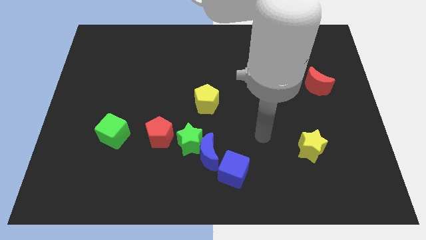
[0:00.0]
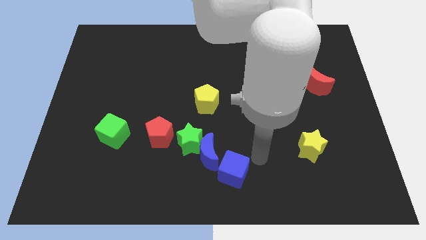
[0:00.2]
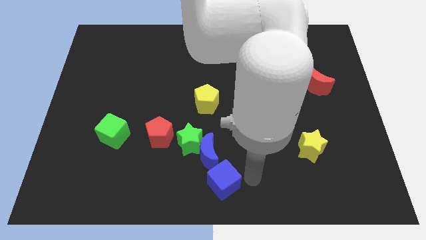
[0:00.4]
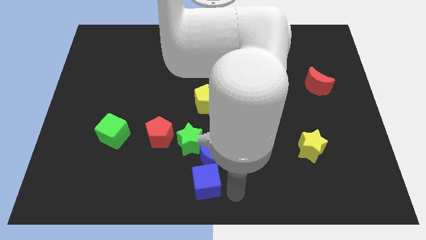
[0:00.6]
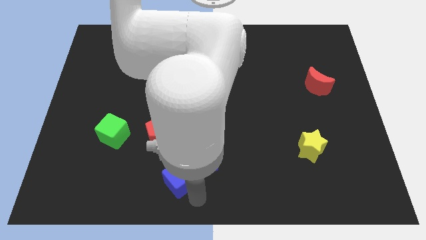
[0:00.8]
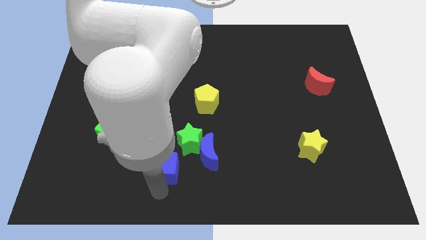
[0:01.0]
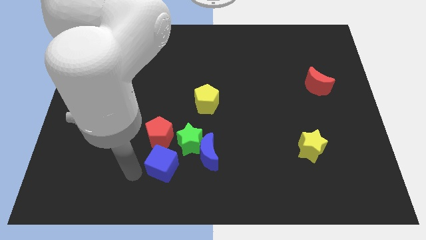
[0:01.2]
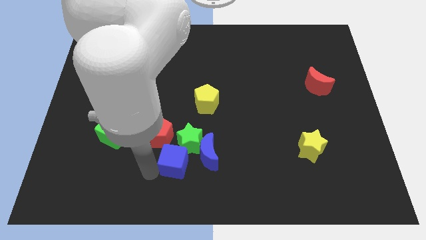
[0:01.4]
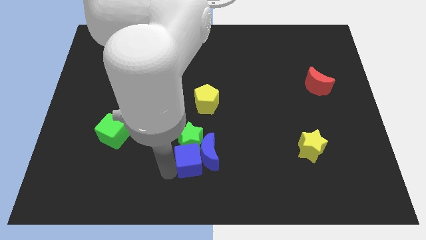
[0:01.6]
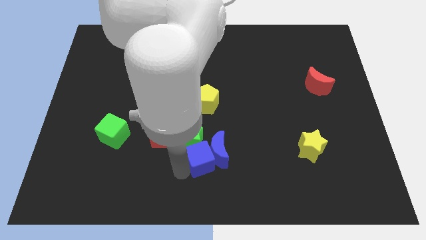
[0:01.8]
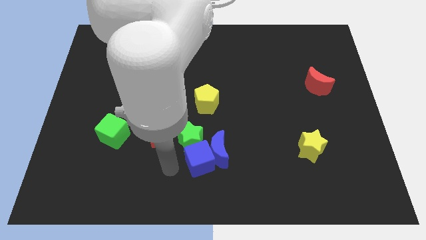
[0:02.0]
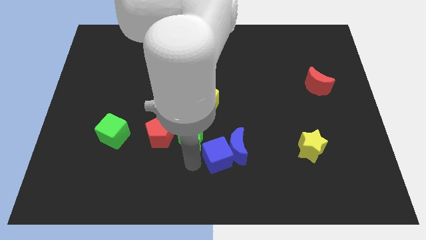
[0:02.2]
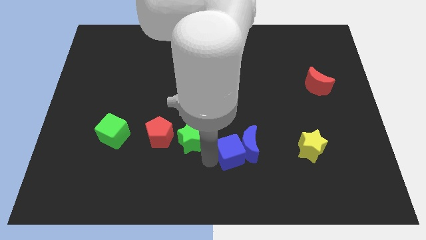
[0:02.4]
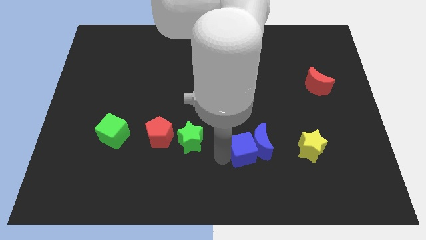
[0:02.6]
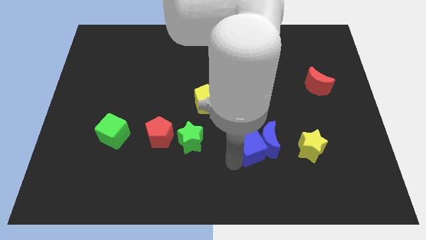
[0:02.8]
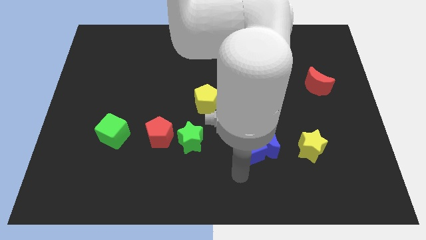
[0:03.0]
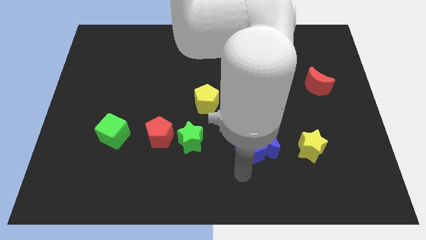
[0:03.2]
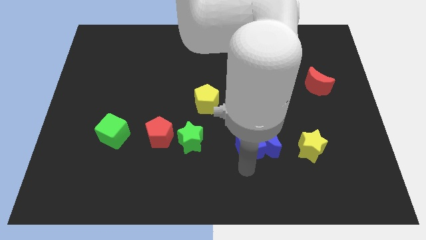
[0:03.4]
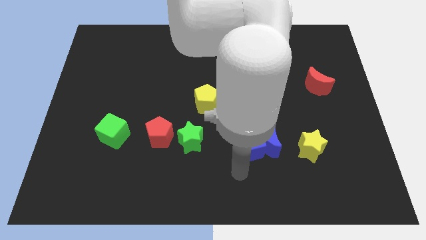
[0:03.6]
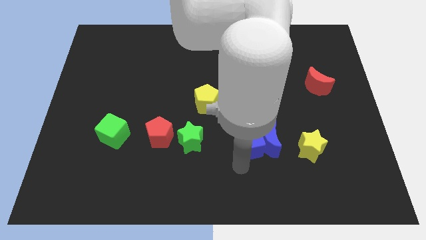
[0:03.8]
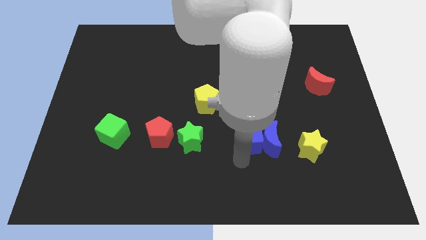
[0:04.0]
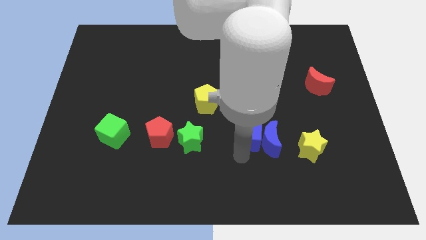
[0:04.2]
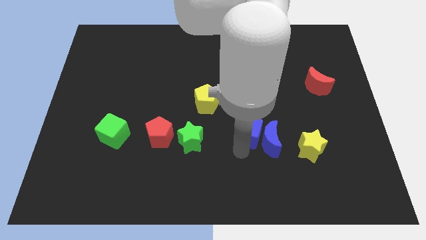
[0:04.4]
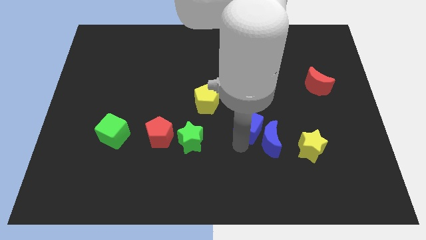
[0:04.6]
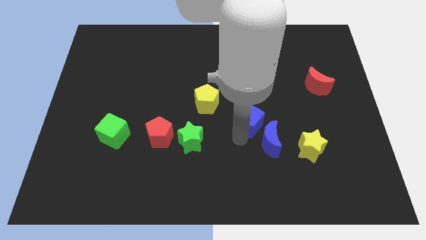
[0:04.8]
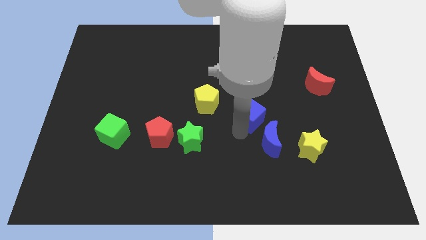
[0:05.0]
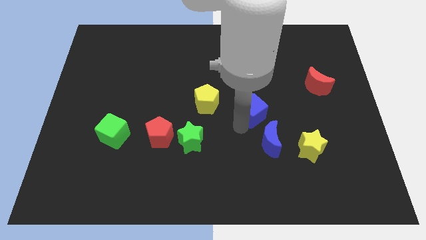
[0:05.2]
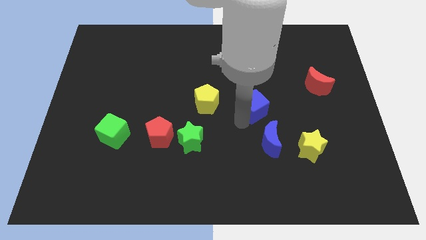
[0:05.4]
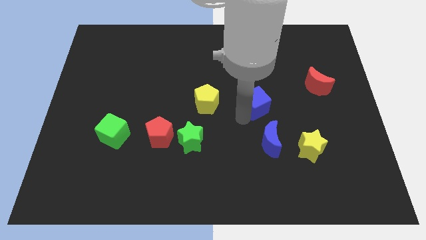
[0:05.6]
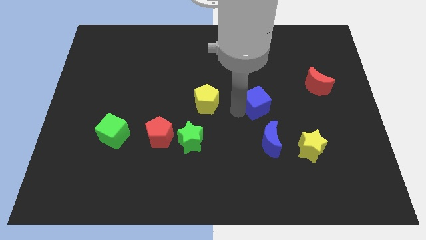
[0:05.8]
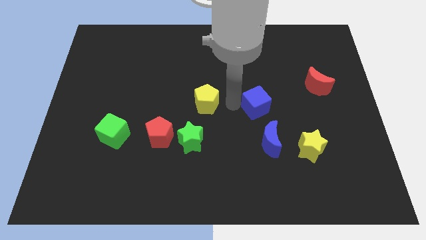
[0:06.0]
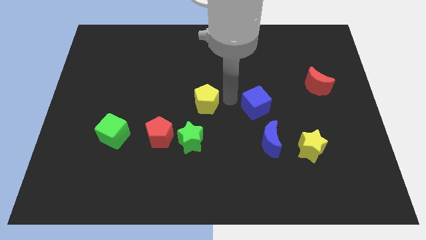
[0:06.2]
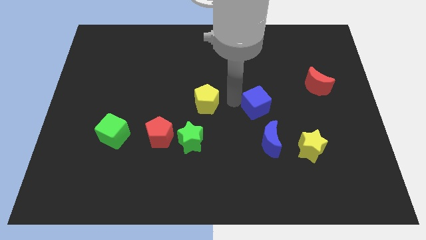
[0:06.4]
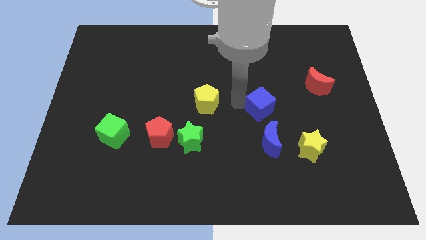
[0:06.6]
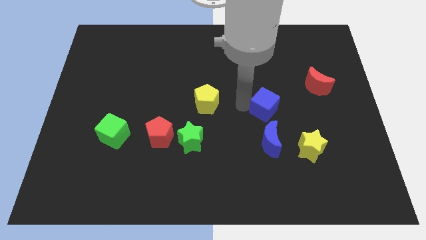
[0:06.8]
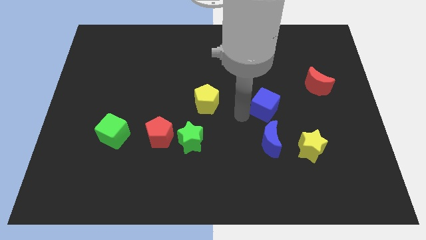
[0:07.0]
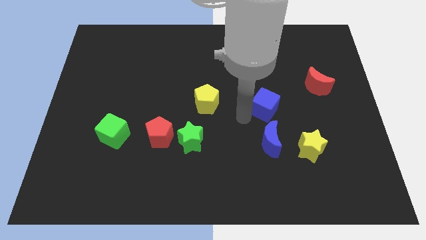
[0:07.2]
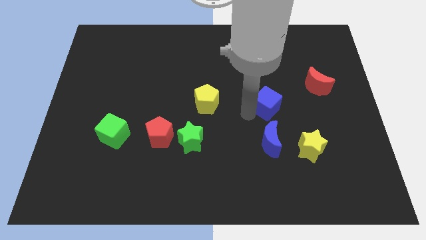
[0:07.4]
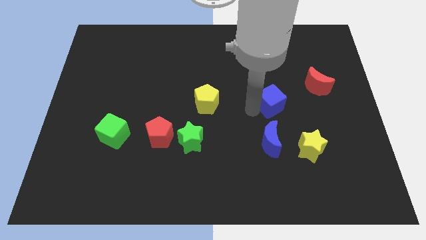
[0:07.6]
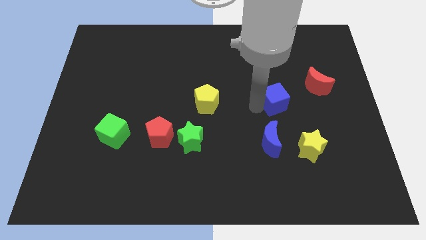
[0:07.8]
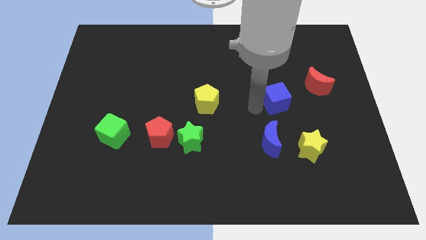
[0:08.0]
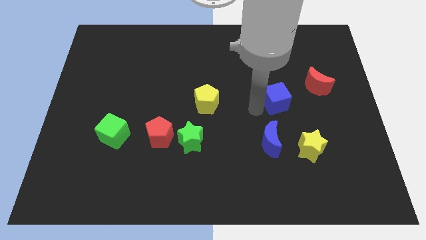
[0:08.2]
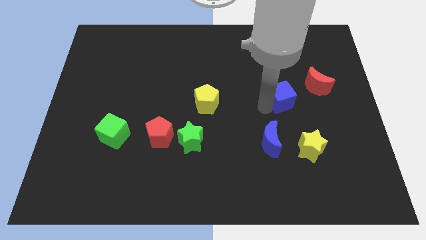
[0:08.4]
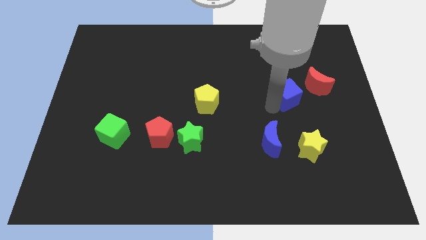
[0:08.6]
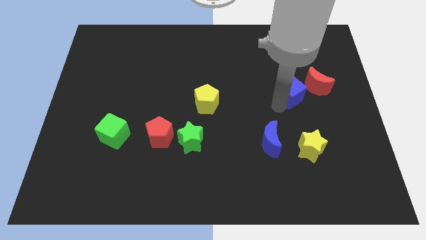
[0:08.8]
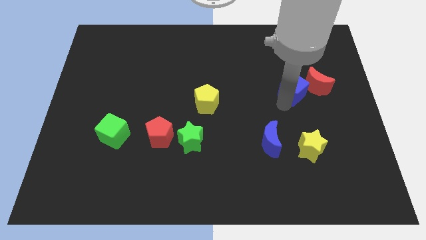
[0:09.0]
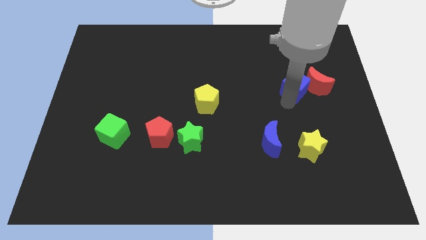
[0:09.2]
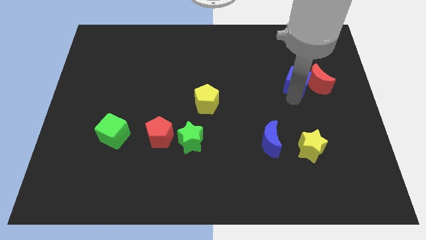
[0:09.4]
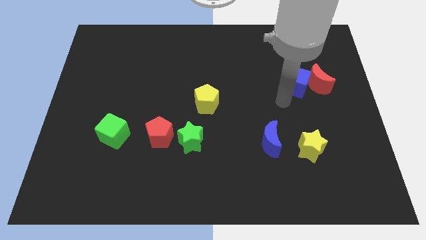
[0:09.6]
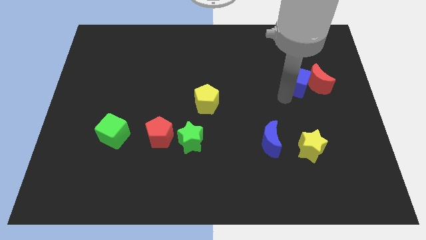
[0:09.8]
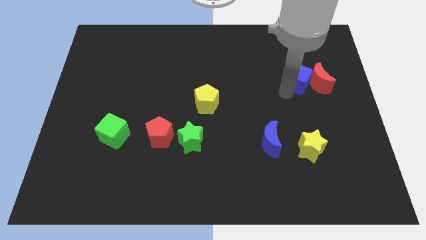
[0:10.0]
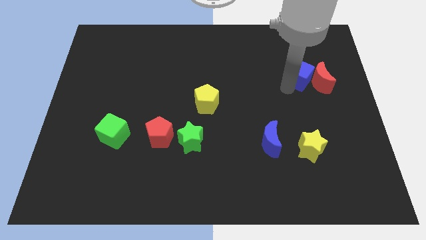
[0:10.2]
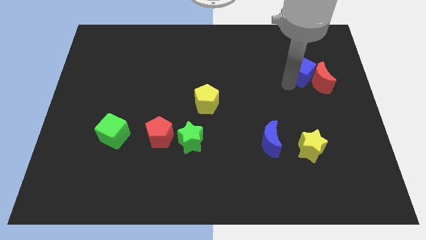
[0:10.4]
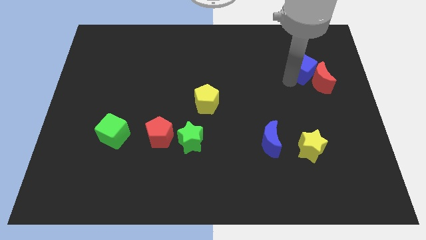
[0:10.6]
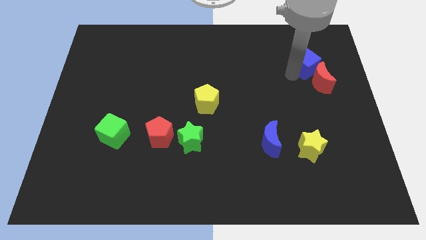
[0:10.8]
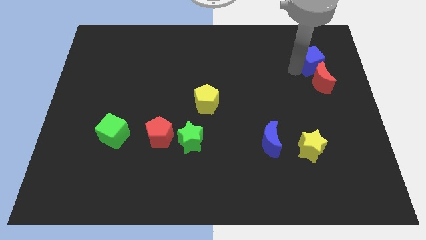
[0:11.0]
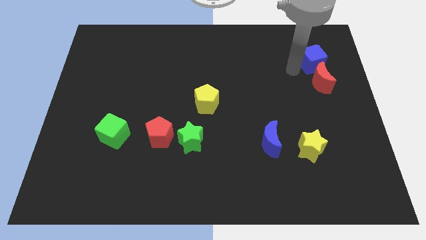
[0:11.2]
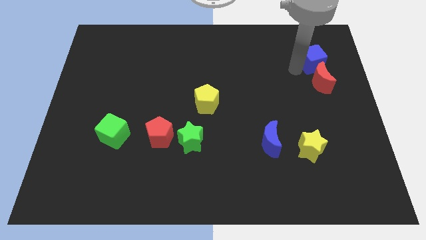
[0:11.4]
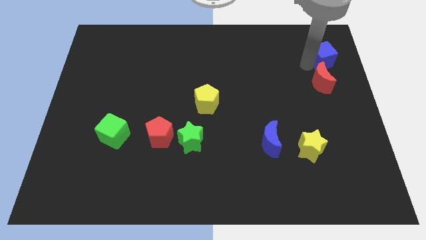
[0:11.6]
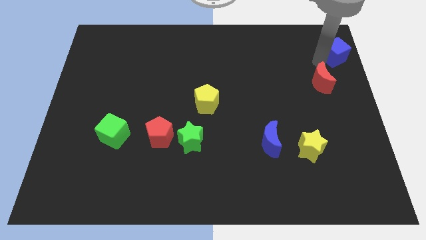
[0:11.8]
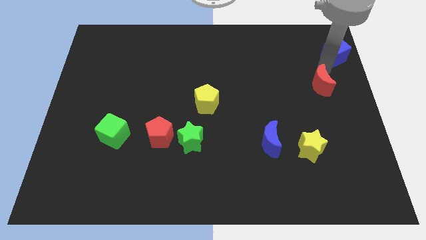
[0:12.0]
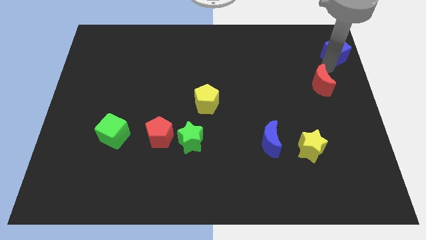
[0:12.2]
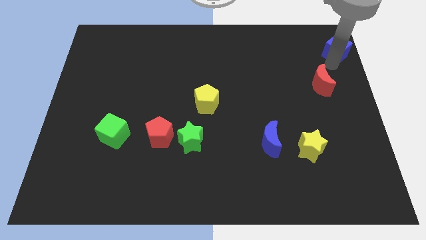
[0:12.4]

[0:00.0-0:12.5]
put the blue cube to the top right
